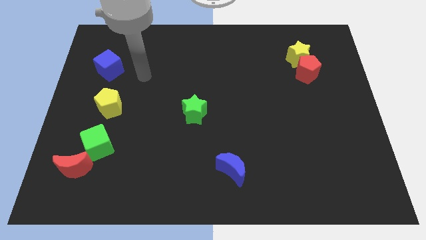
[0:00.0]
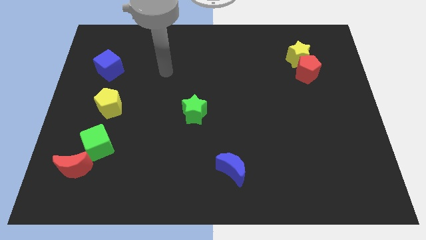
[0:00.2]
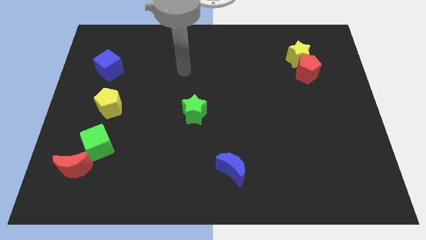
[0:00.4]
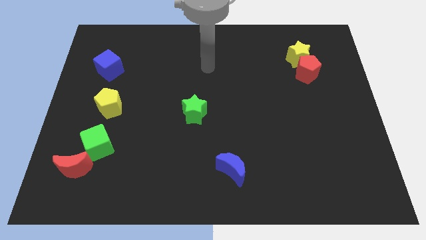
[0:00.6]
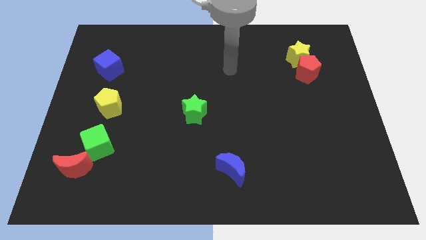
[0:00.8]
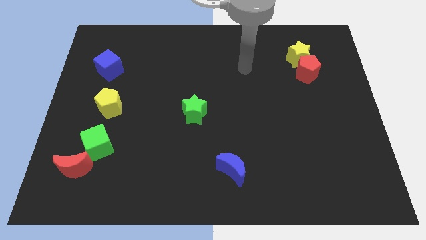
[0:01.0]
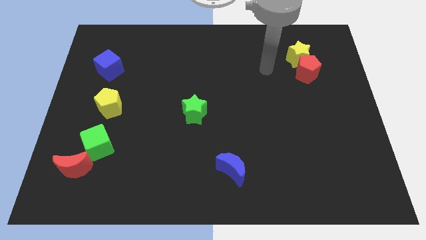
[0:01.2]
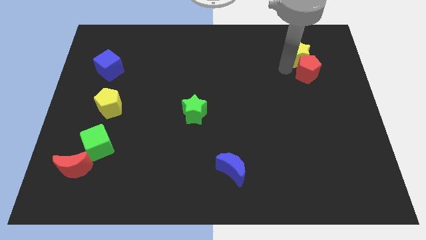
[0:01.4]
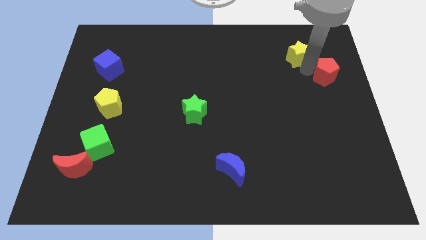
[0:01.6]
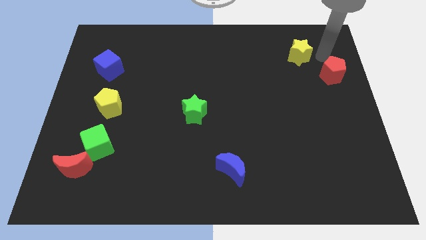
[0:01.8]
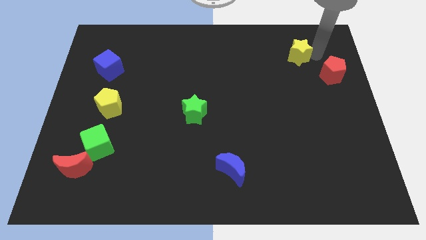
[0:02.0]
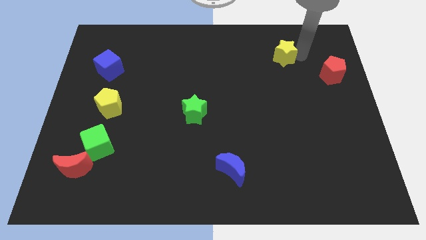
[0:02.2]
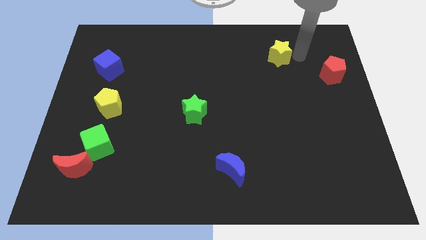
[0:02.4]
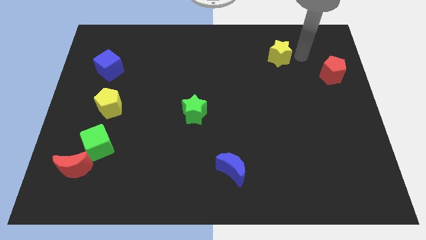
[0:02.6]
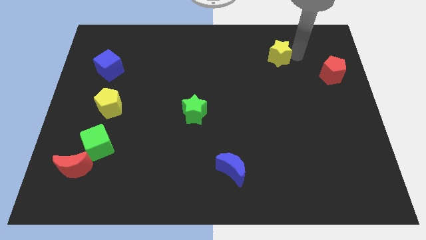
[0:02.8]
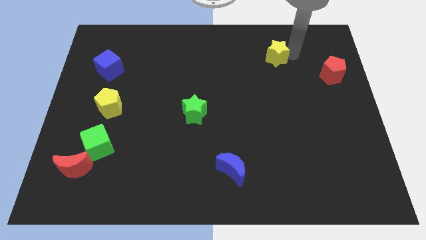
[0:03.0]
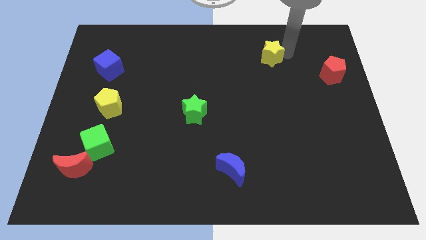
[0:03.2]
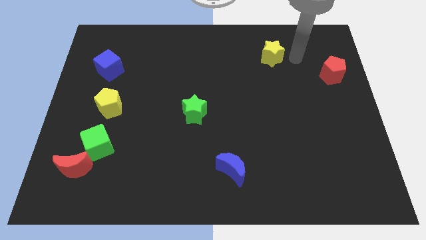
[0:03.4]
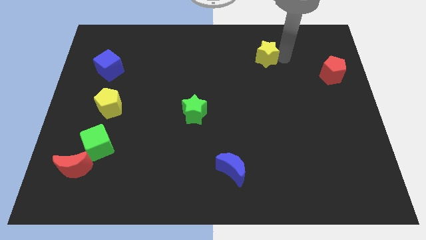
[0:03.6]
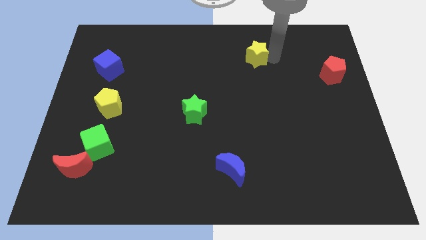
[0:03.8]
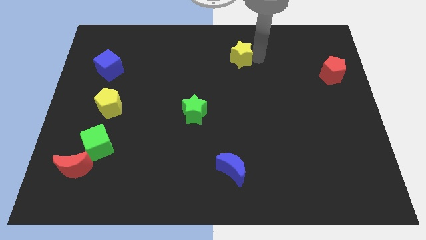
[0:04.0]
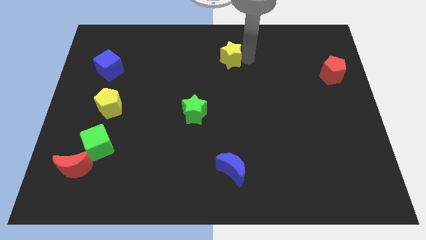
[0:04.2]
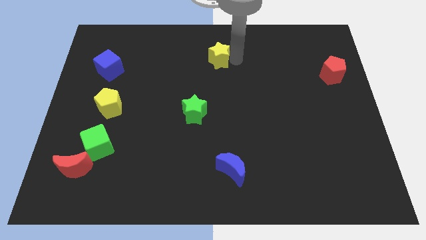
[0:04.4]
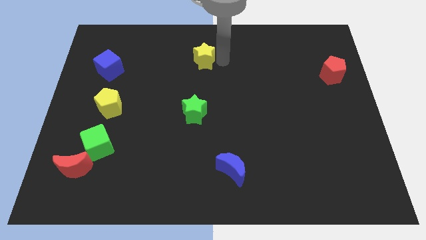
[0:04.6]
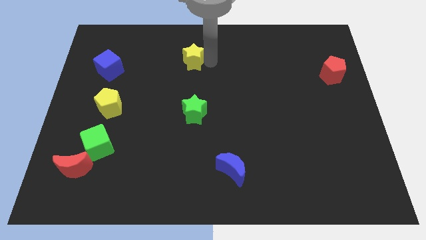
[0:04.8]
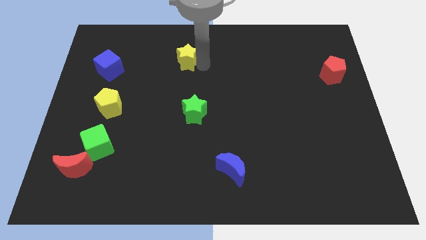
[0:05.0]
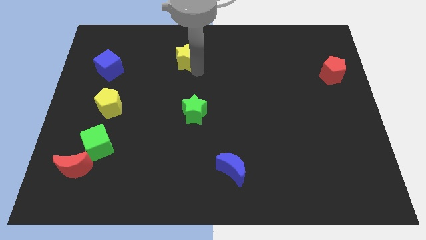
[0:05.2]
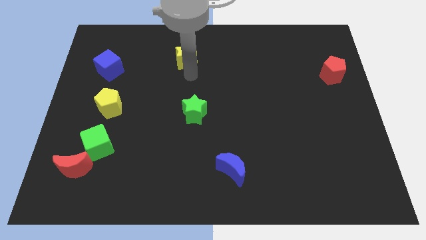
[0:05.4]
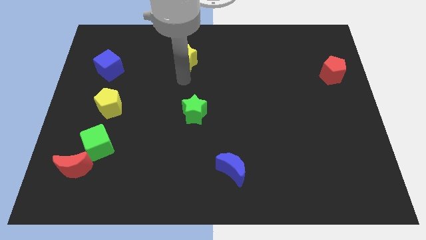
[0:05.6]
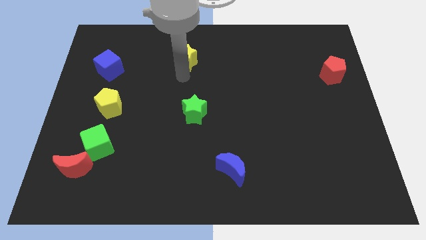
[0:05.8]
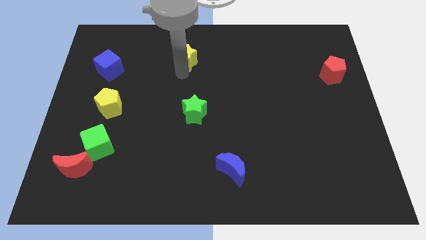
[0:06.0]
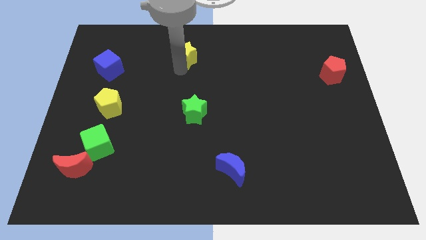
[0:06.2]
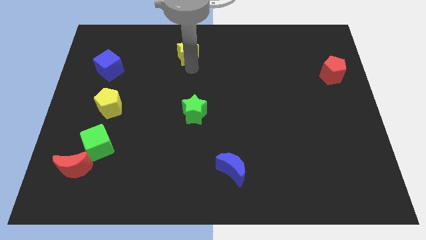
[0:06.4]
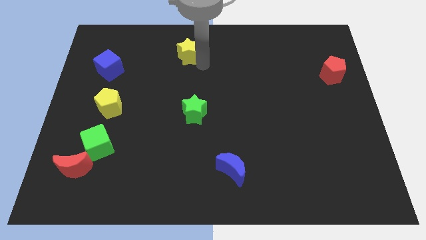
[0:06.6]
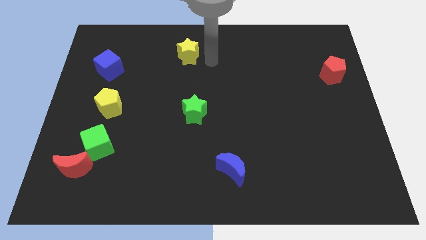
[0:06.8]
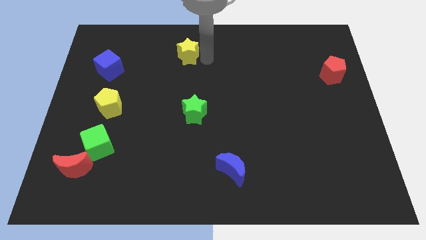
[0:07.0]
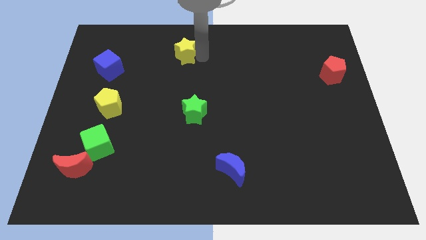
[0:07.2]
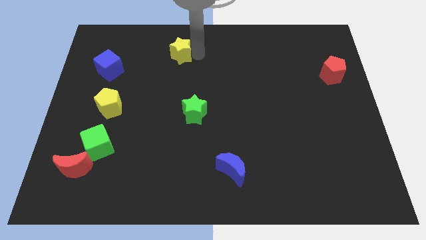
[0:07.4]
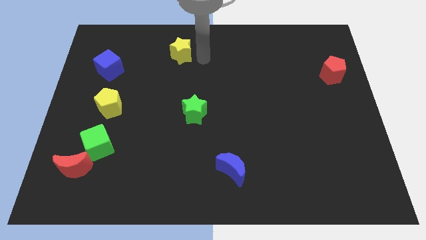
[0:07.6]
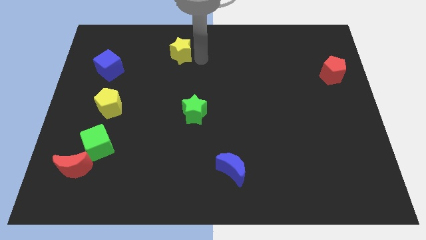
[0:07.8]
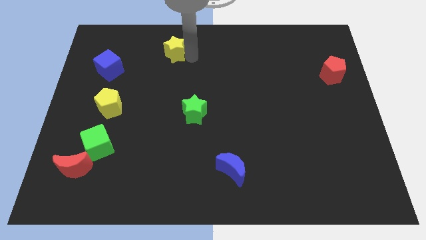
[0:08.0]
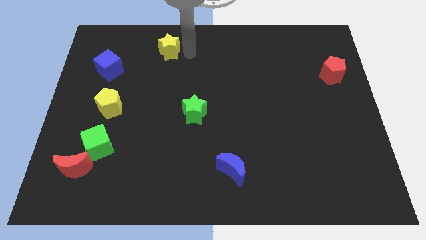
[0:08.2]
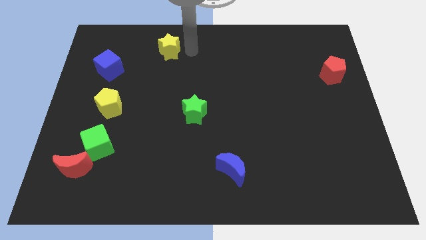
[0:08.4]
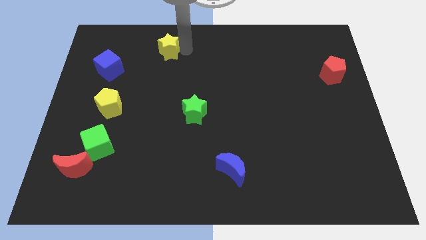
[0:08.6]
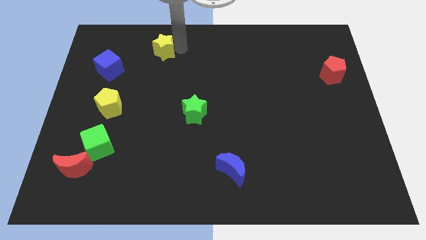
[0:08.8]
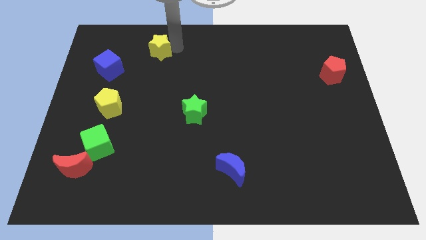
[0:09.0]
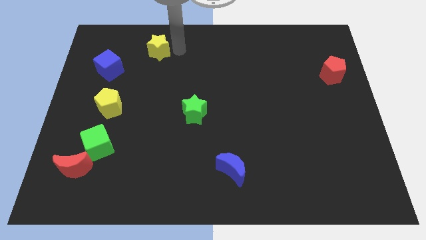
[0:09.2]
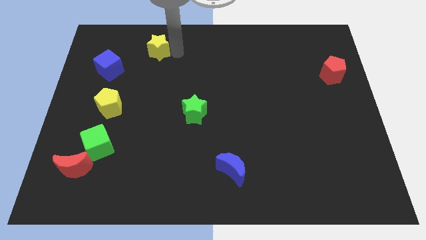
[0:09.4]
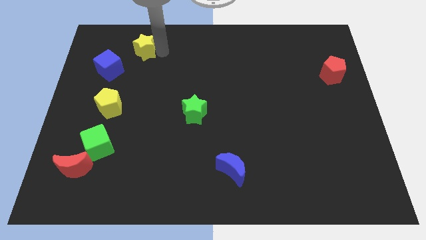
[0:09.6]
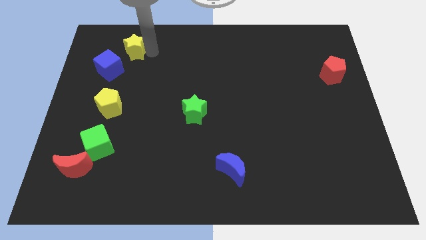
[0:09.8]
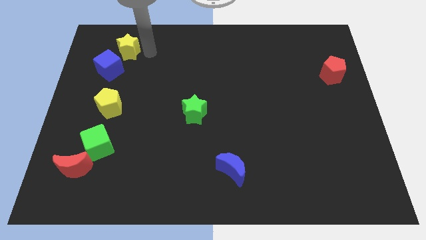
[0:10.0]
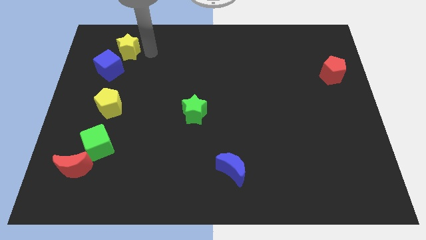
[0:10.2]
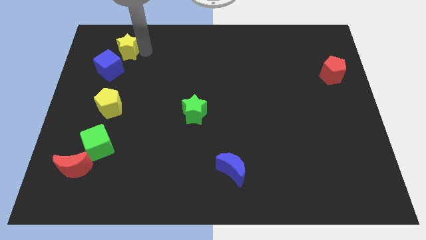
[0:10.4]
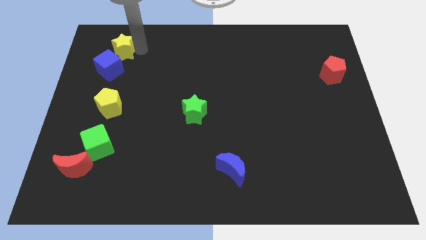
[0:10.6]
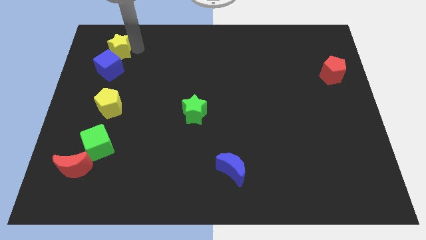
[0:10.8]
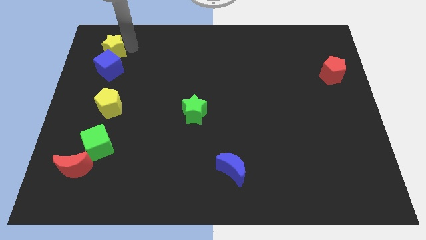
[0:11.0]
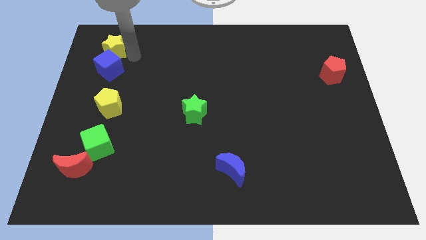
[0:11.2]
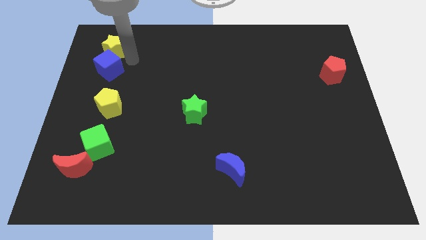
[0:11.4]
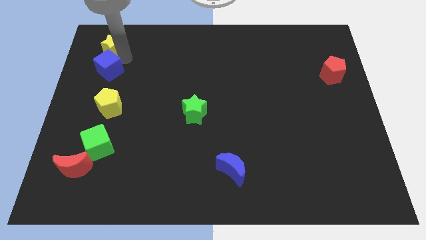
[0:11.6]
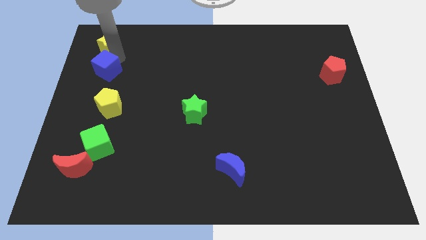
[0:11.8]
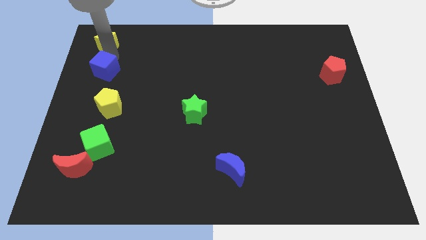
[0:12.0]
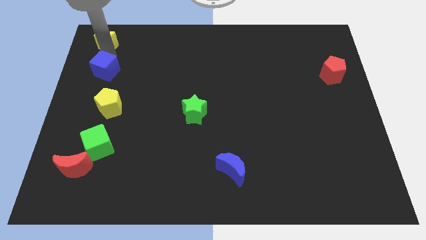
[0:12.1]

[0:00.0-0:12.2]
put the yellow star to the top left of the board
